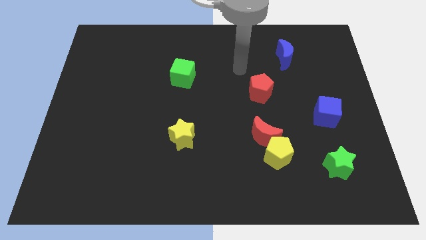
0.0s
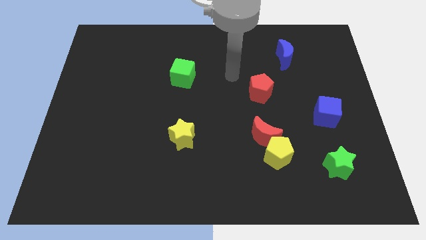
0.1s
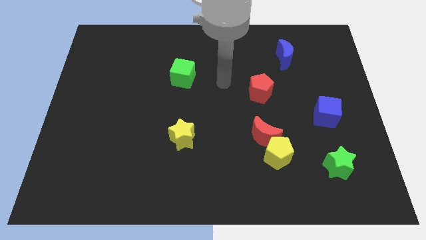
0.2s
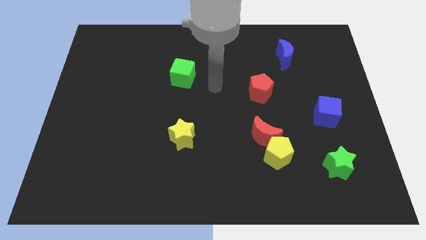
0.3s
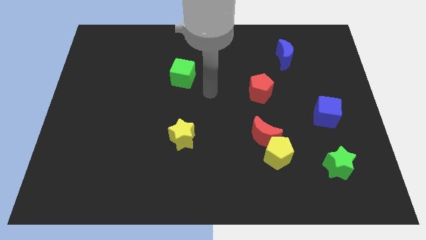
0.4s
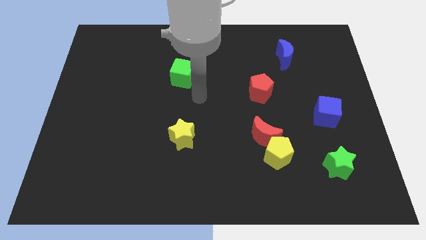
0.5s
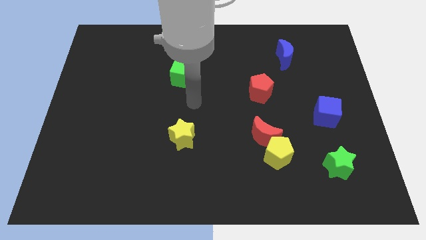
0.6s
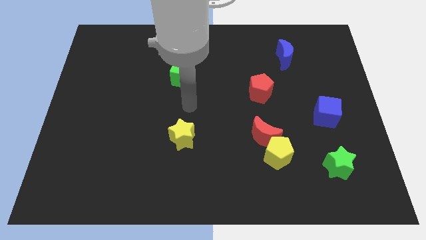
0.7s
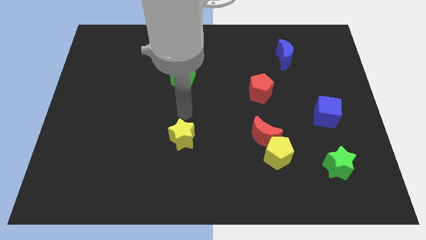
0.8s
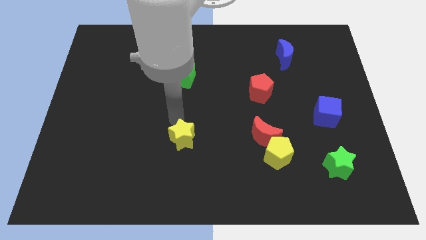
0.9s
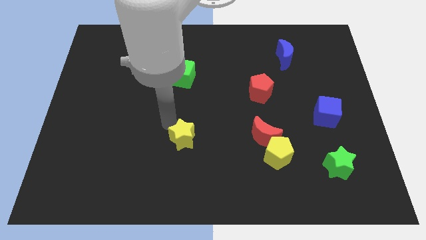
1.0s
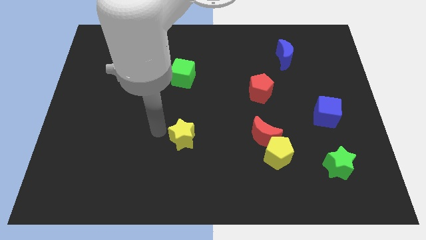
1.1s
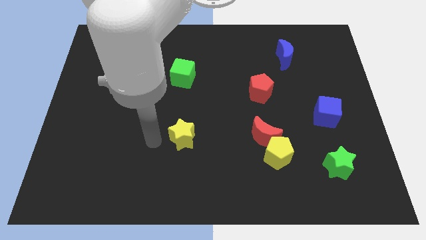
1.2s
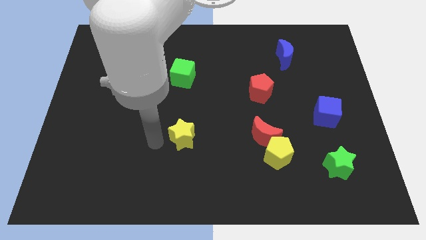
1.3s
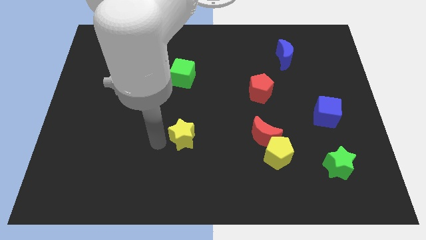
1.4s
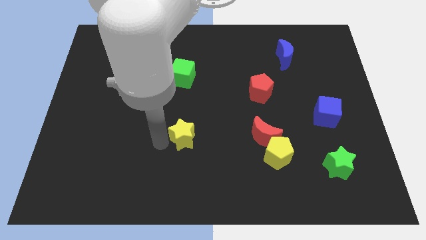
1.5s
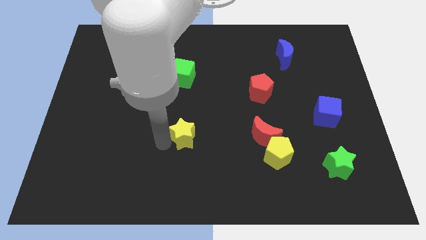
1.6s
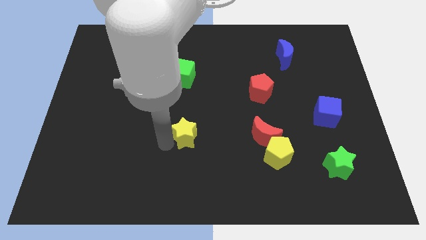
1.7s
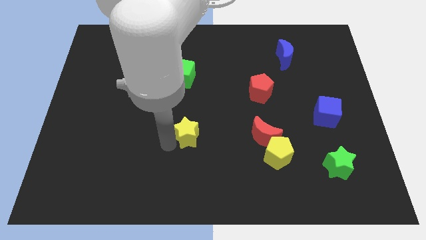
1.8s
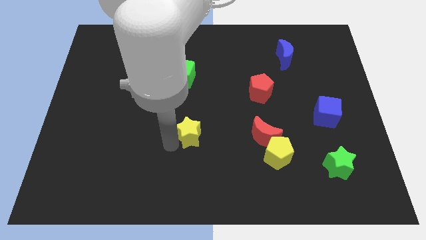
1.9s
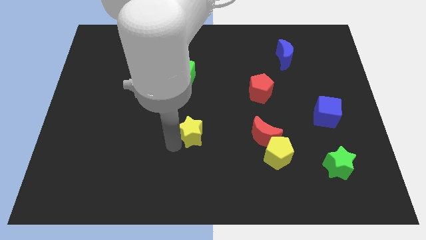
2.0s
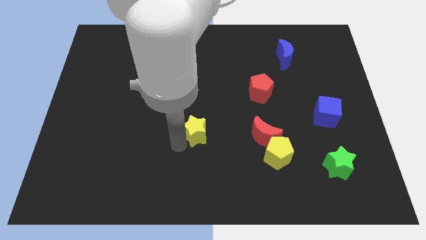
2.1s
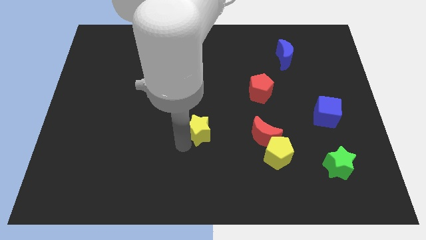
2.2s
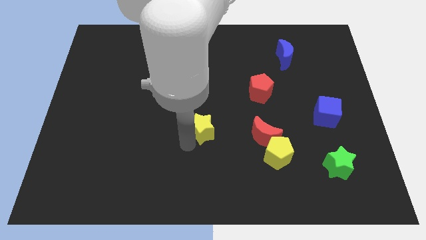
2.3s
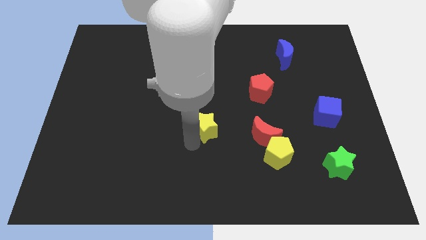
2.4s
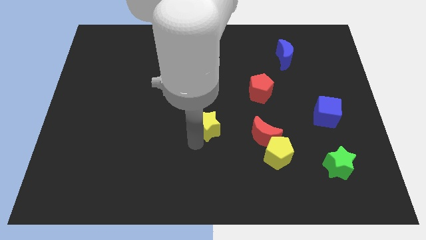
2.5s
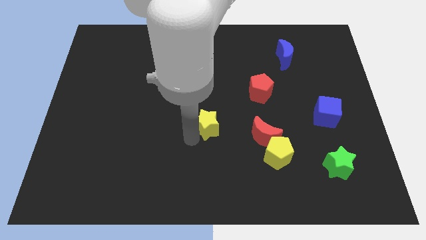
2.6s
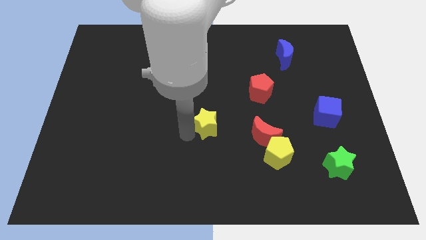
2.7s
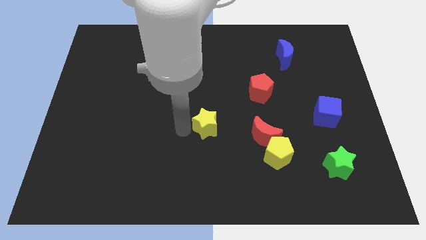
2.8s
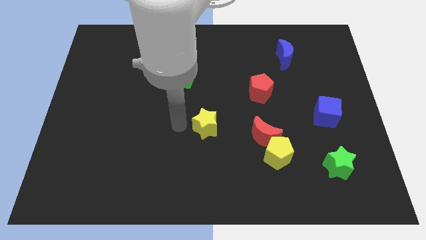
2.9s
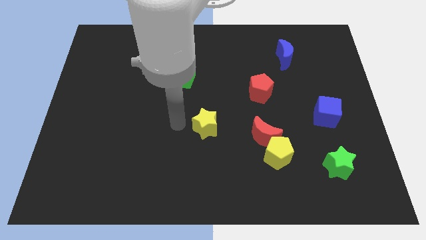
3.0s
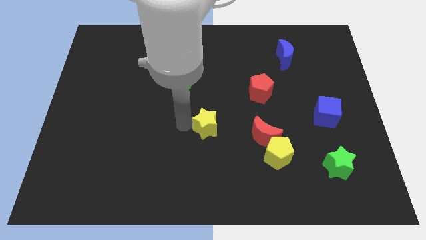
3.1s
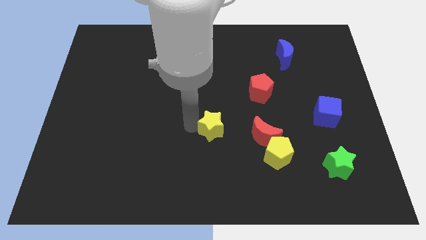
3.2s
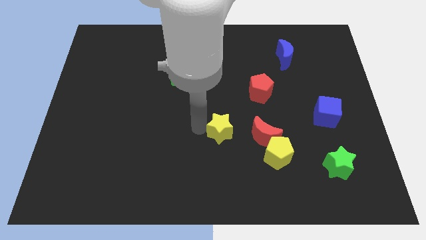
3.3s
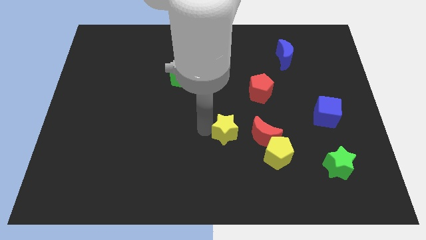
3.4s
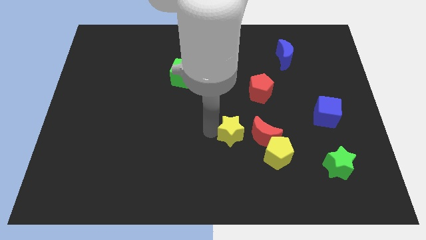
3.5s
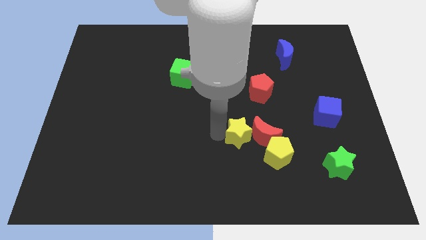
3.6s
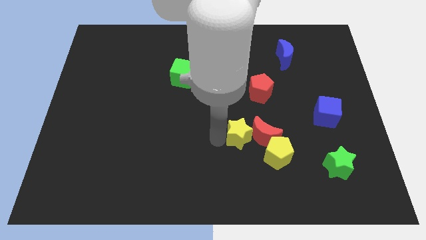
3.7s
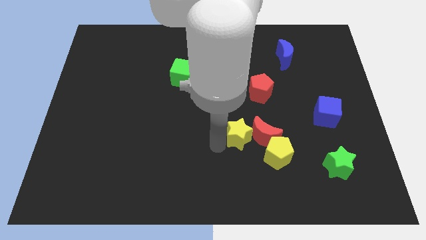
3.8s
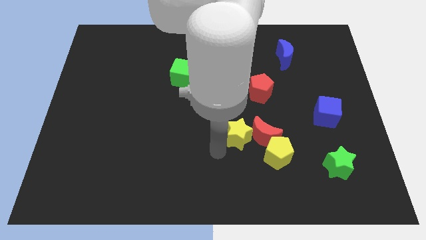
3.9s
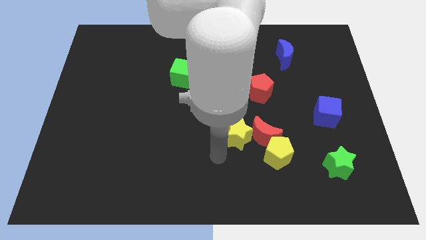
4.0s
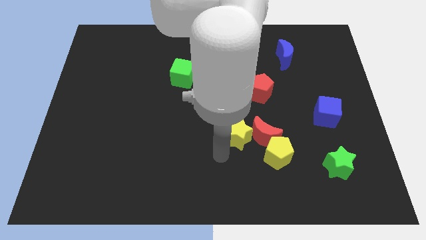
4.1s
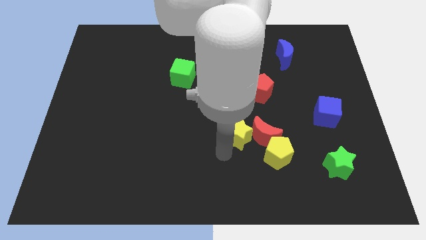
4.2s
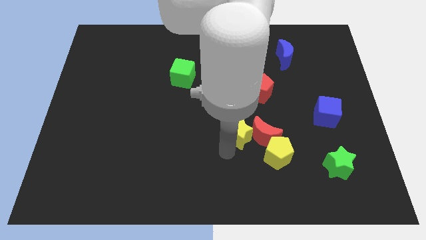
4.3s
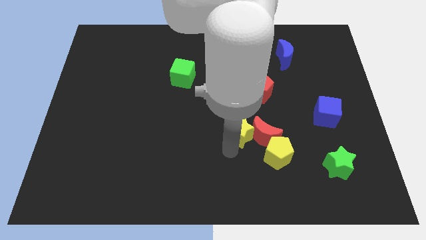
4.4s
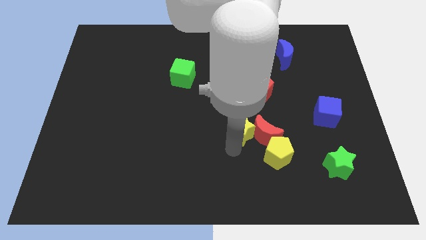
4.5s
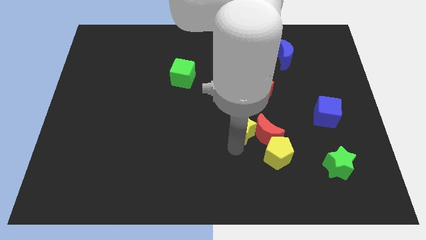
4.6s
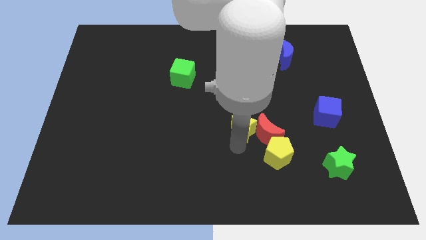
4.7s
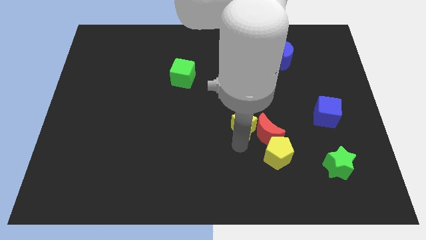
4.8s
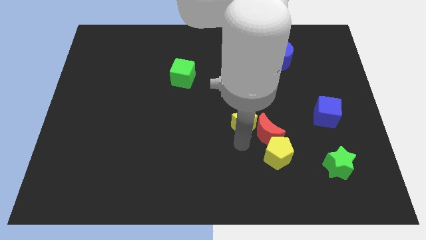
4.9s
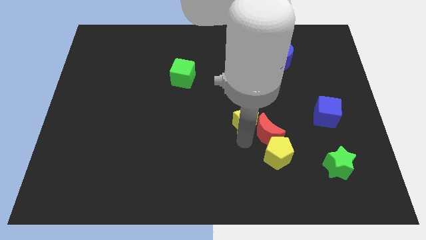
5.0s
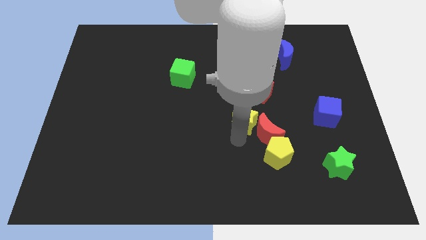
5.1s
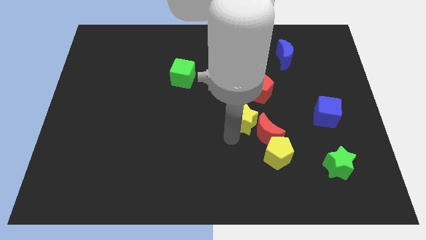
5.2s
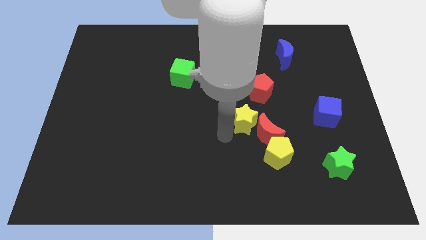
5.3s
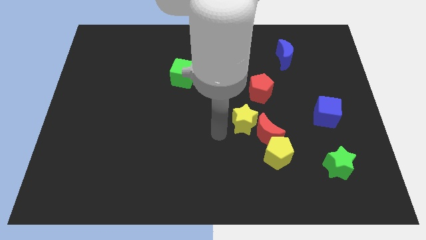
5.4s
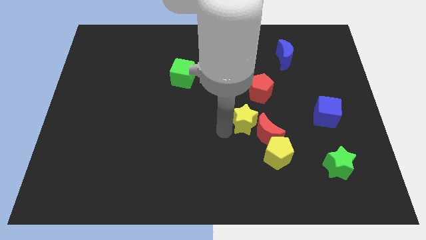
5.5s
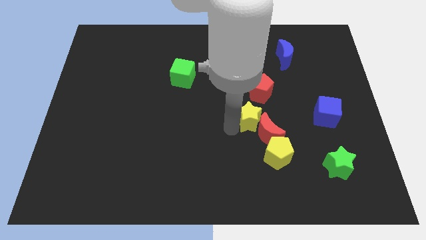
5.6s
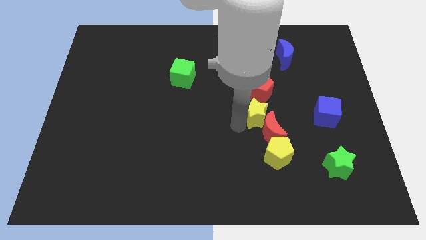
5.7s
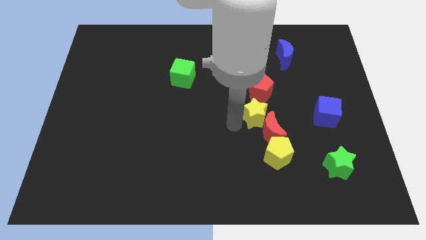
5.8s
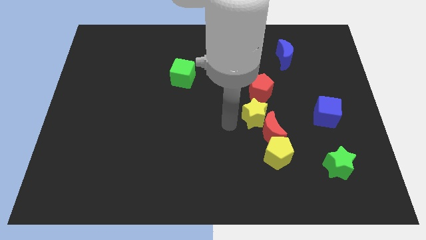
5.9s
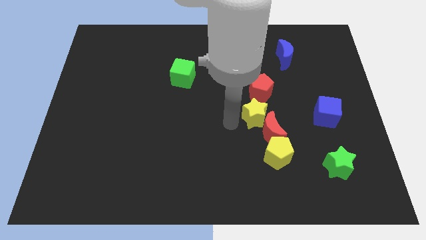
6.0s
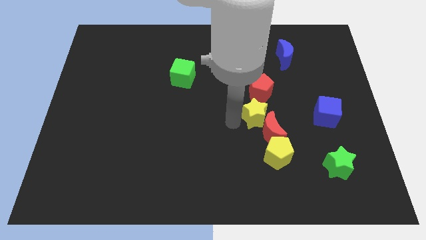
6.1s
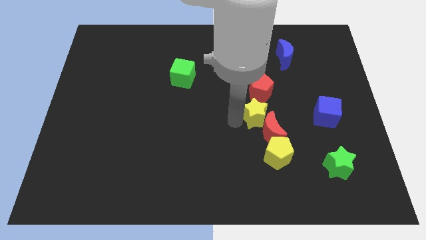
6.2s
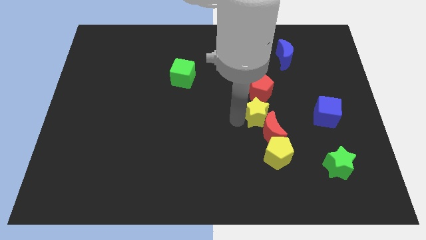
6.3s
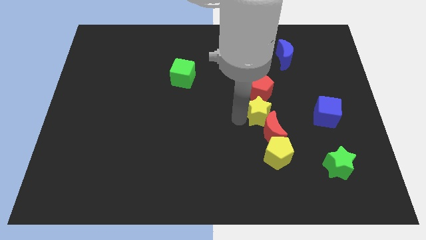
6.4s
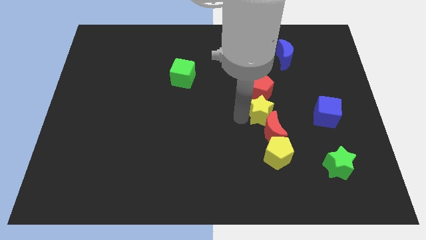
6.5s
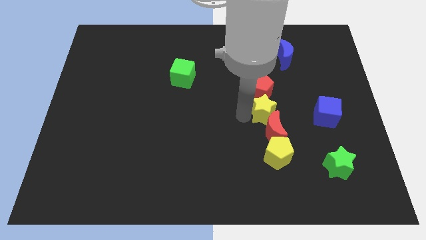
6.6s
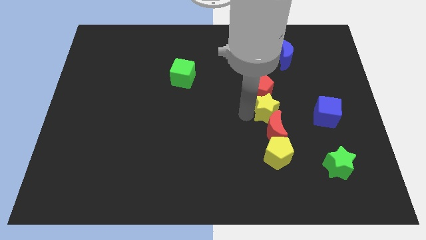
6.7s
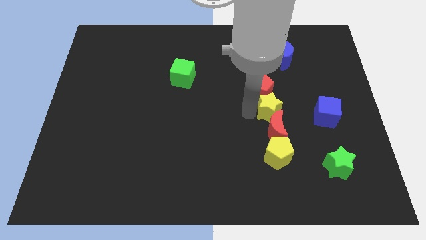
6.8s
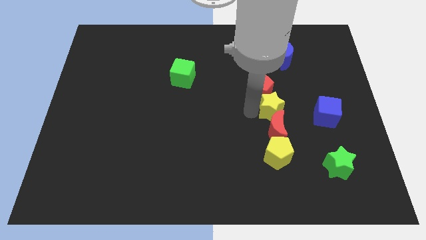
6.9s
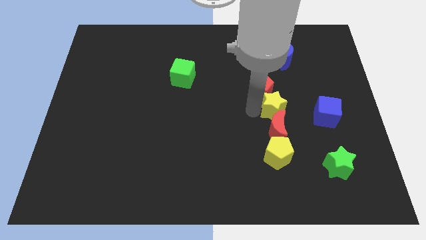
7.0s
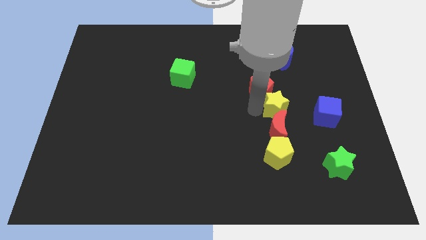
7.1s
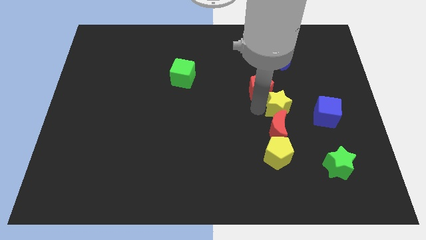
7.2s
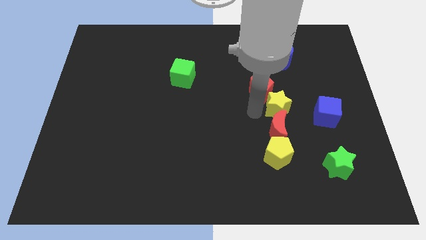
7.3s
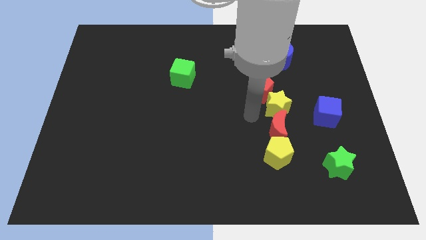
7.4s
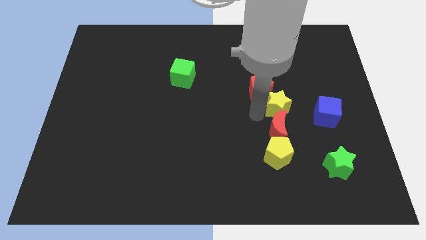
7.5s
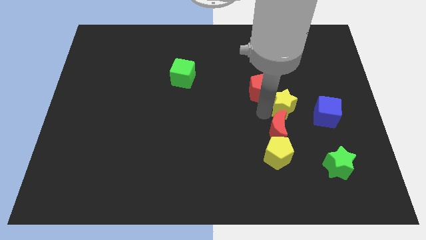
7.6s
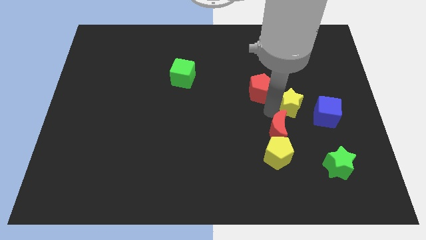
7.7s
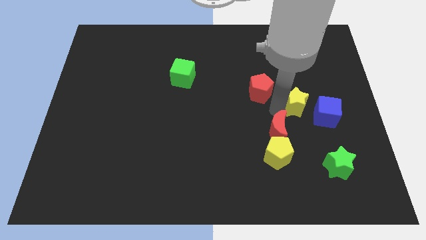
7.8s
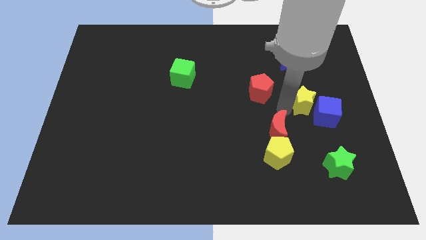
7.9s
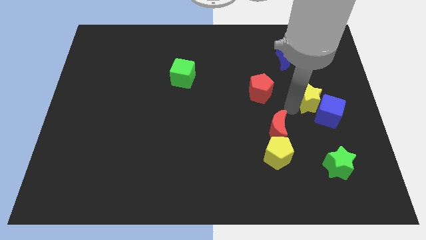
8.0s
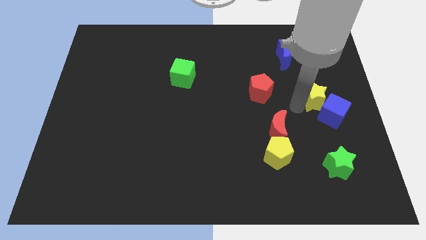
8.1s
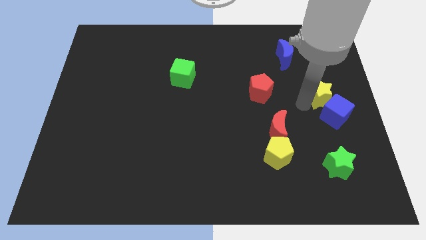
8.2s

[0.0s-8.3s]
put the yellow star to the right side
